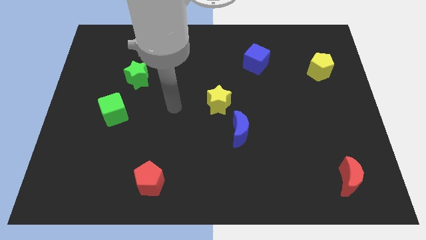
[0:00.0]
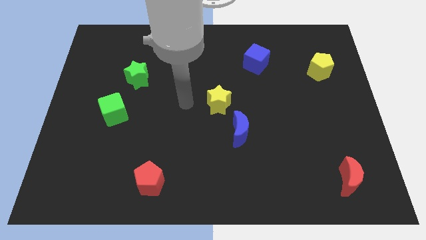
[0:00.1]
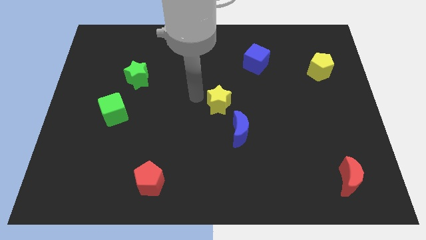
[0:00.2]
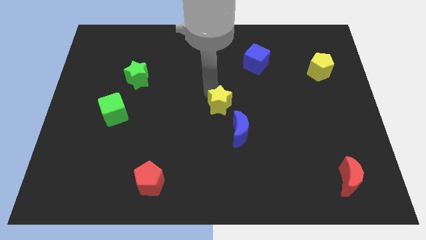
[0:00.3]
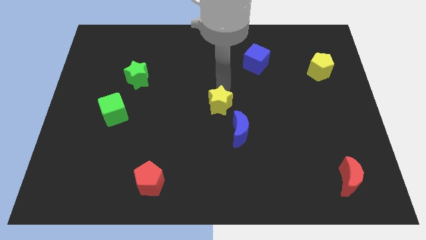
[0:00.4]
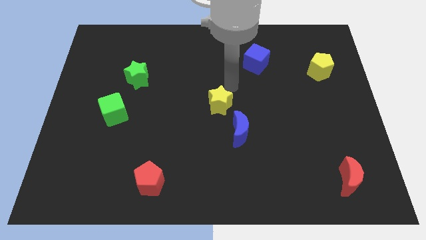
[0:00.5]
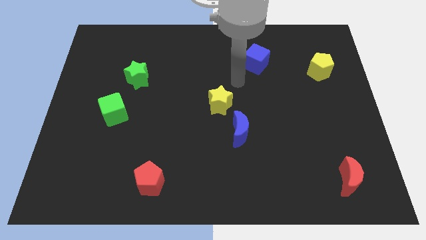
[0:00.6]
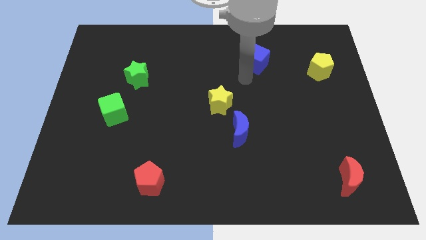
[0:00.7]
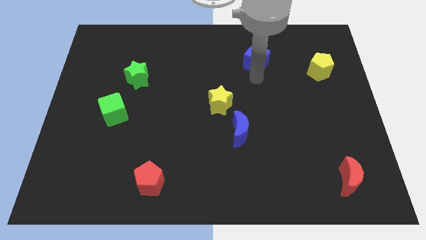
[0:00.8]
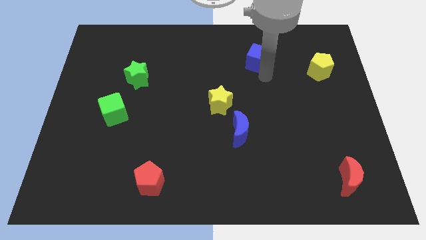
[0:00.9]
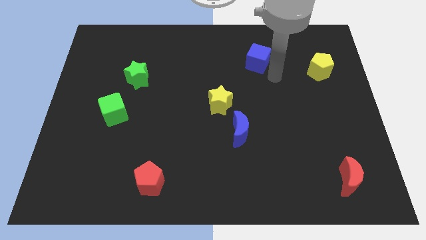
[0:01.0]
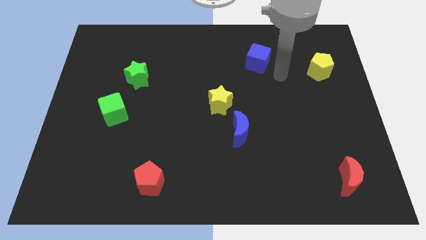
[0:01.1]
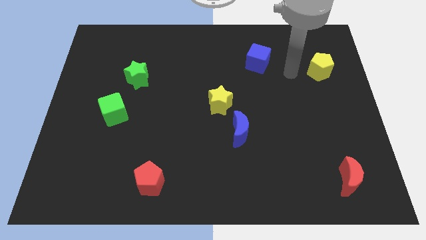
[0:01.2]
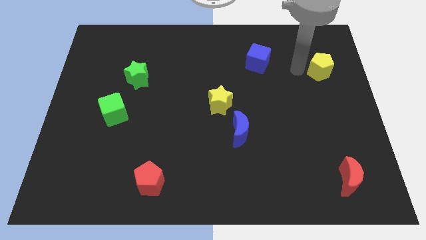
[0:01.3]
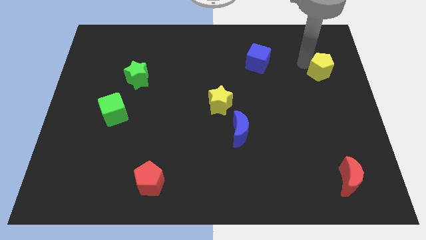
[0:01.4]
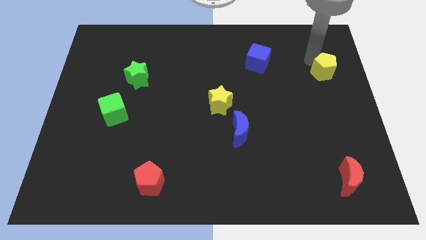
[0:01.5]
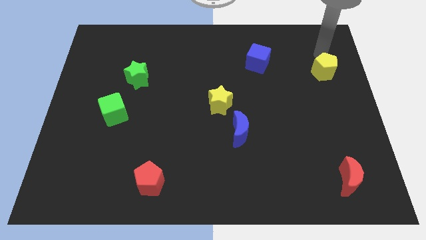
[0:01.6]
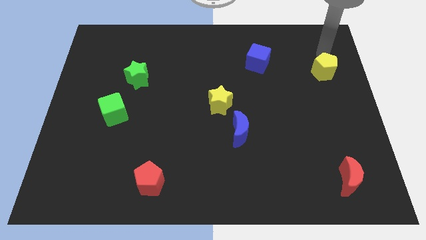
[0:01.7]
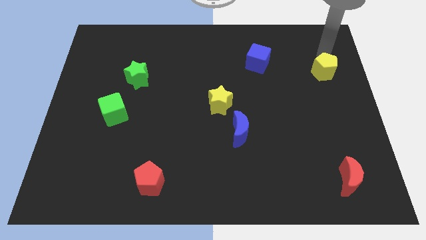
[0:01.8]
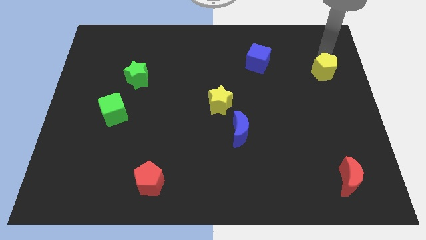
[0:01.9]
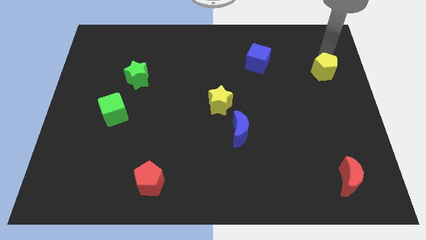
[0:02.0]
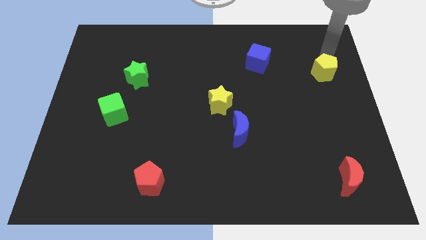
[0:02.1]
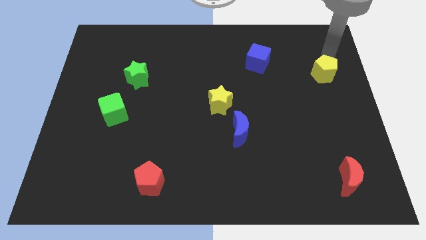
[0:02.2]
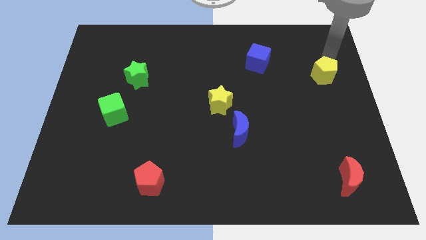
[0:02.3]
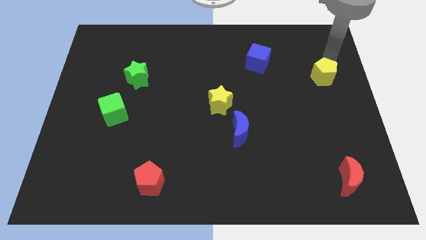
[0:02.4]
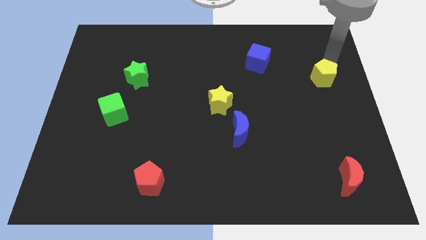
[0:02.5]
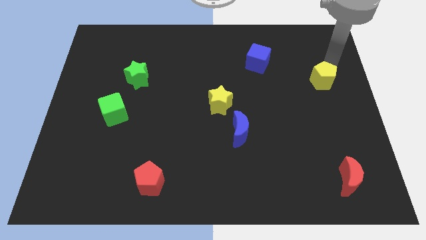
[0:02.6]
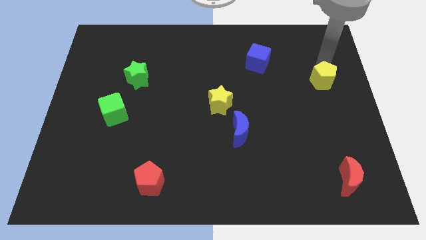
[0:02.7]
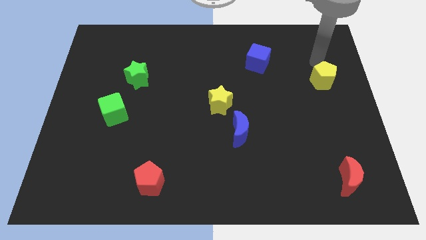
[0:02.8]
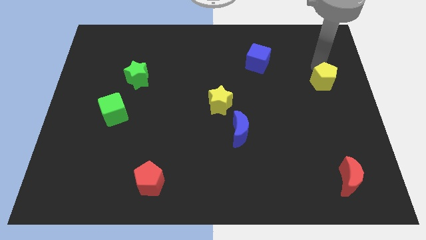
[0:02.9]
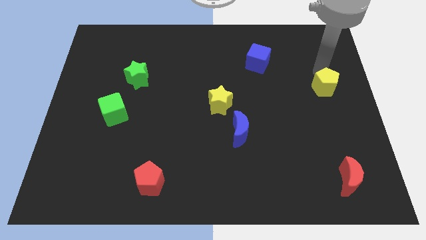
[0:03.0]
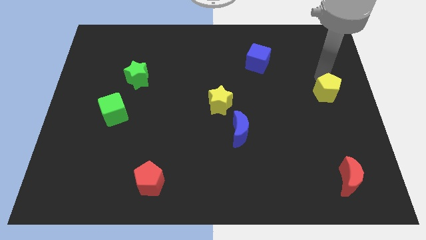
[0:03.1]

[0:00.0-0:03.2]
slightly slide the yellow pentagon downwards

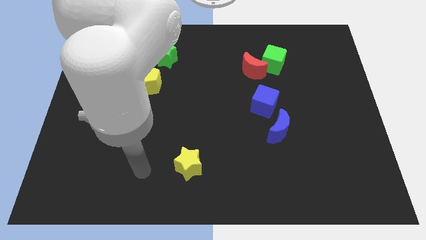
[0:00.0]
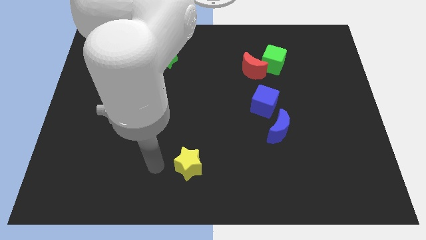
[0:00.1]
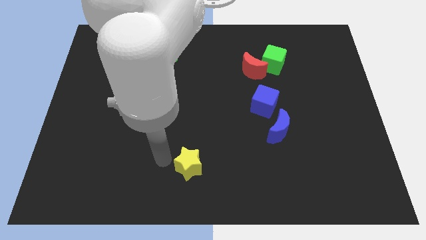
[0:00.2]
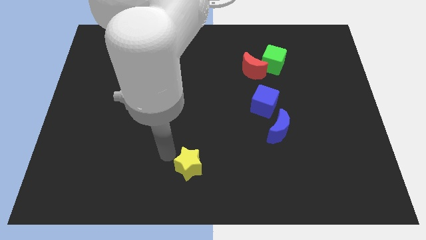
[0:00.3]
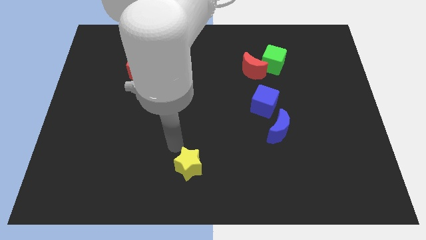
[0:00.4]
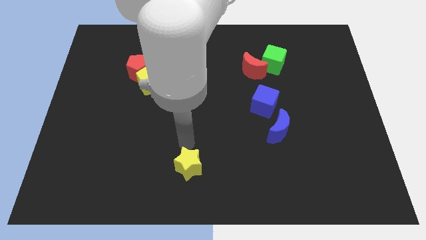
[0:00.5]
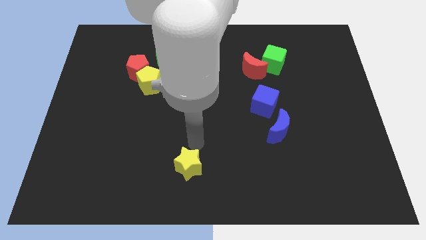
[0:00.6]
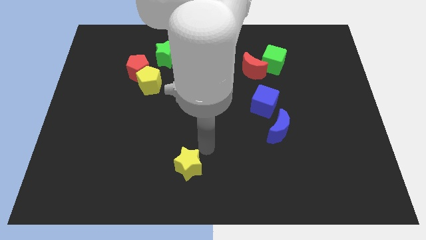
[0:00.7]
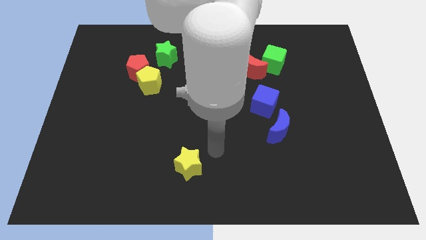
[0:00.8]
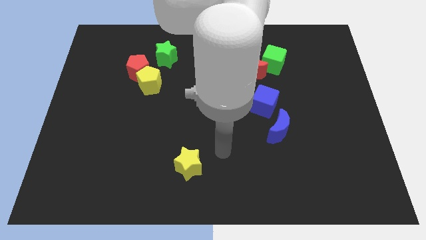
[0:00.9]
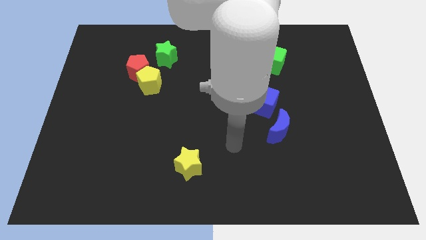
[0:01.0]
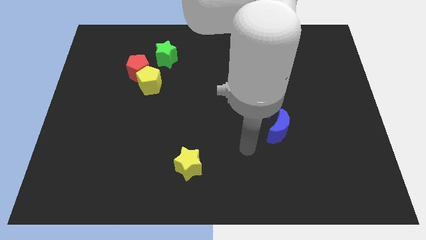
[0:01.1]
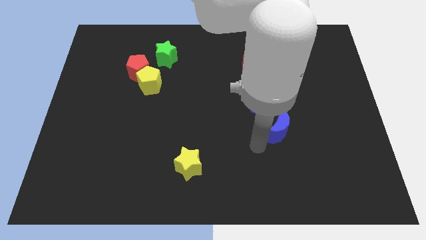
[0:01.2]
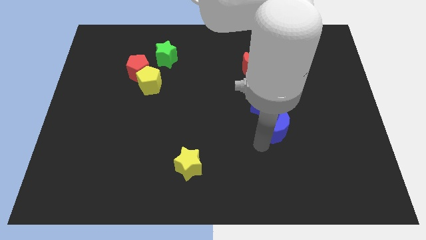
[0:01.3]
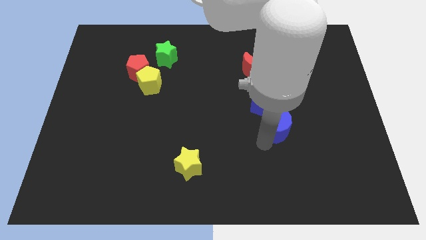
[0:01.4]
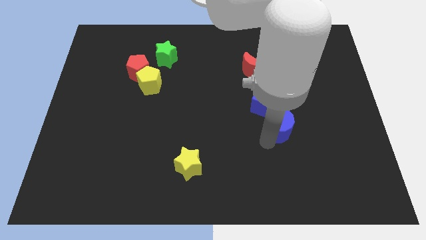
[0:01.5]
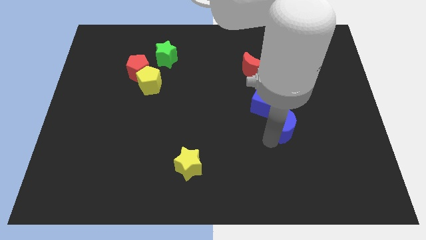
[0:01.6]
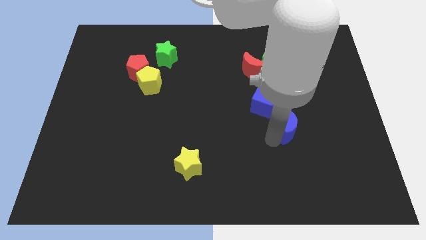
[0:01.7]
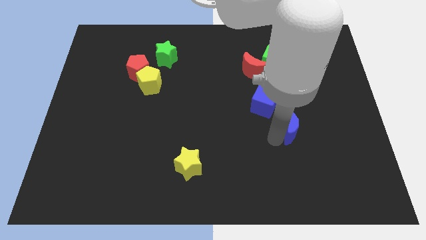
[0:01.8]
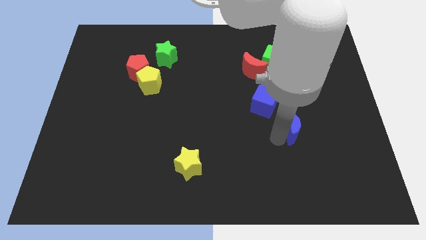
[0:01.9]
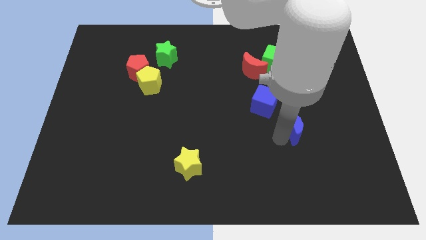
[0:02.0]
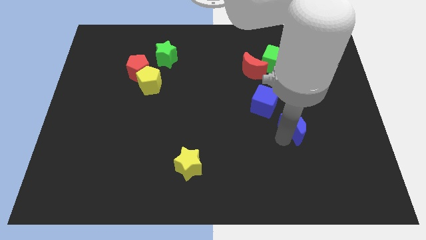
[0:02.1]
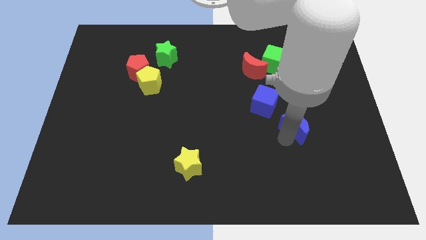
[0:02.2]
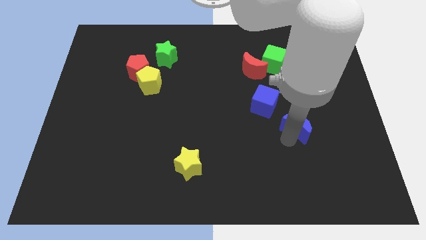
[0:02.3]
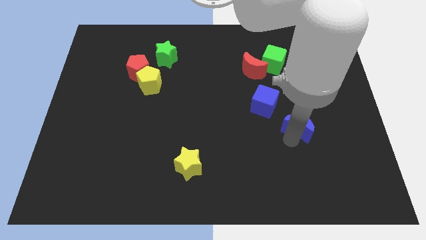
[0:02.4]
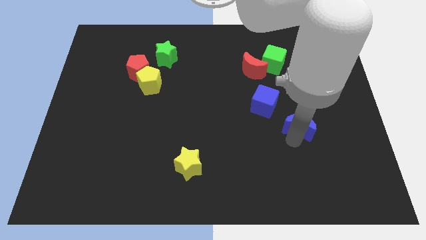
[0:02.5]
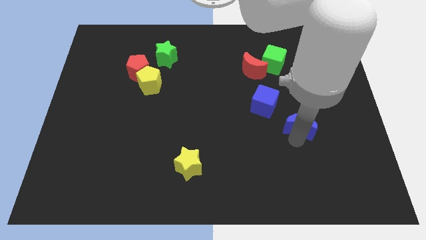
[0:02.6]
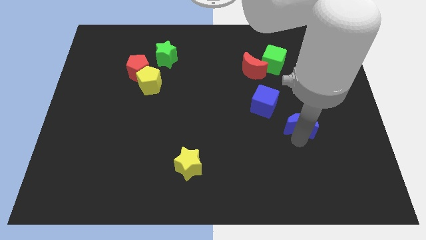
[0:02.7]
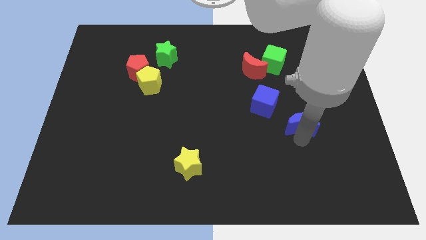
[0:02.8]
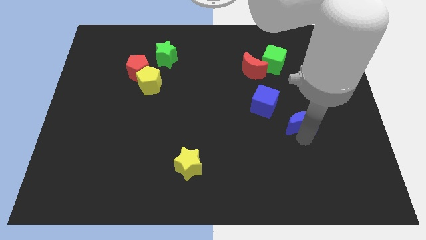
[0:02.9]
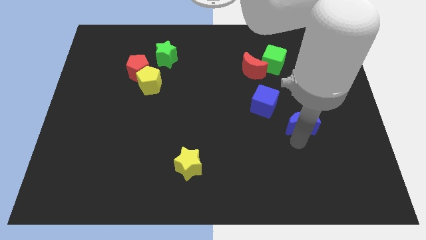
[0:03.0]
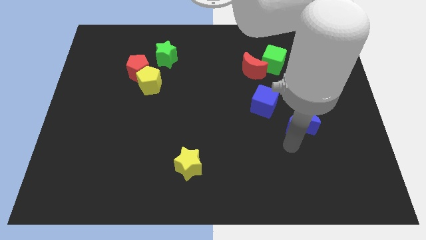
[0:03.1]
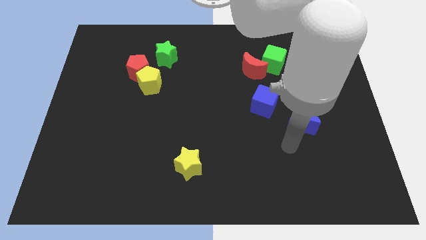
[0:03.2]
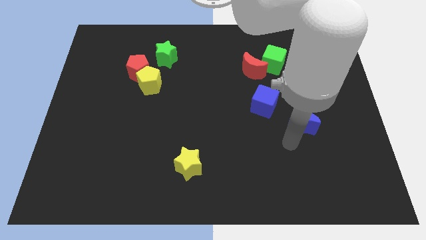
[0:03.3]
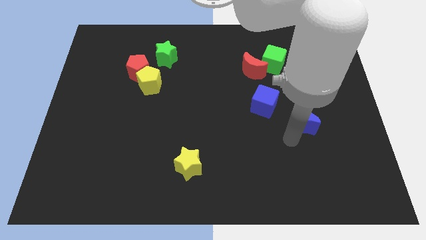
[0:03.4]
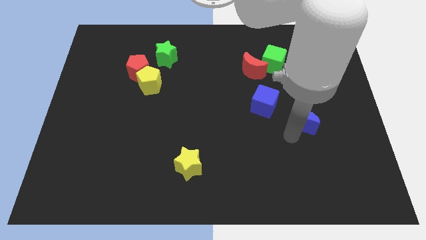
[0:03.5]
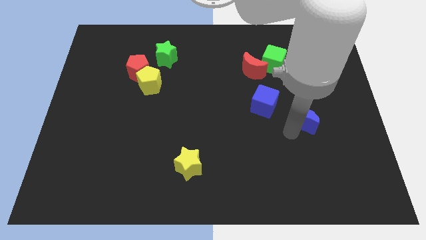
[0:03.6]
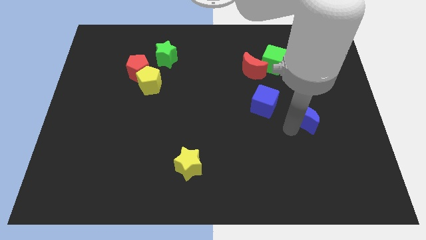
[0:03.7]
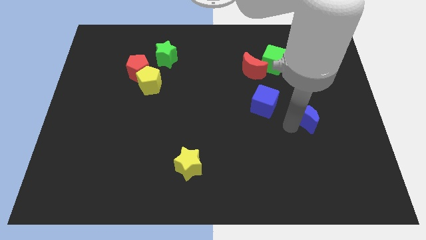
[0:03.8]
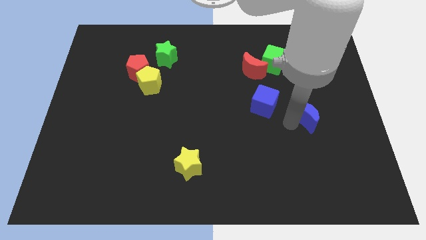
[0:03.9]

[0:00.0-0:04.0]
push the blue moon somewhat up and then right

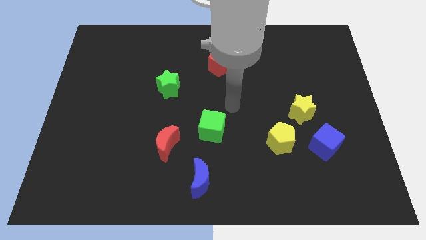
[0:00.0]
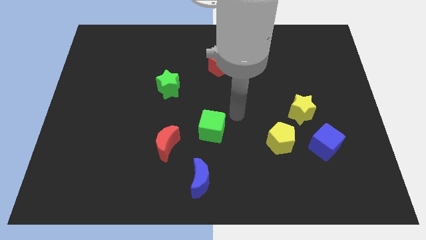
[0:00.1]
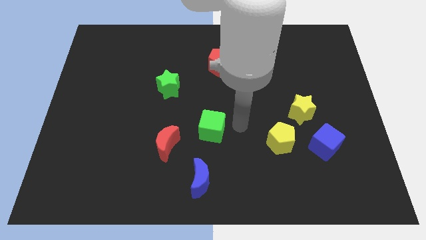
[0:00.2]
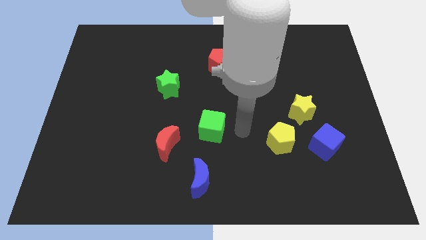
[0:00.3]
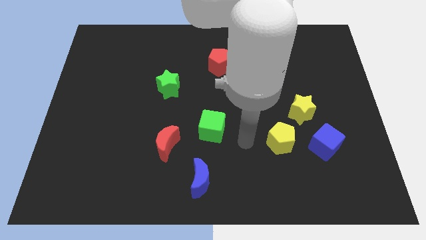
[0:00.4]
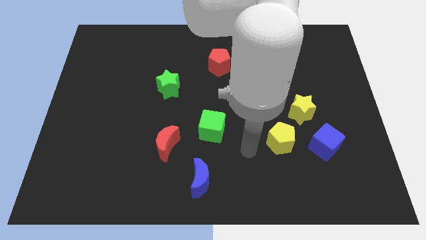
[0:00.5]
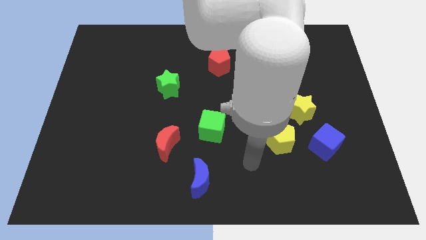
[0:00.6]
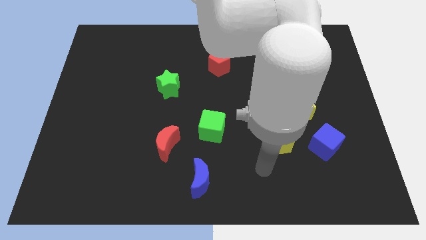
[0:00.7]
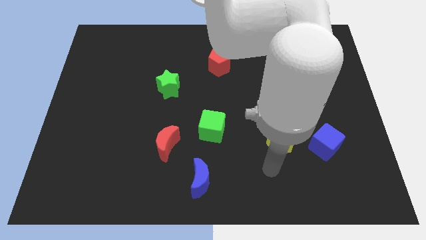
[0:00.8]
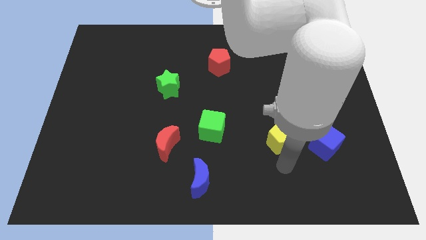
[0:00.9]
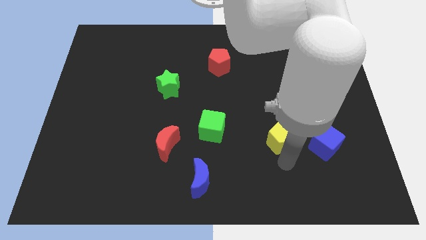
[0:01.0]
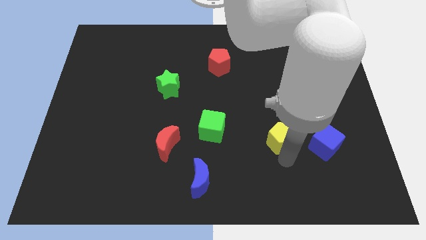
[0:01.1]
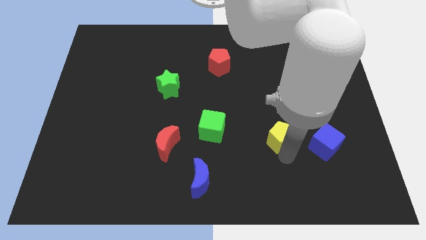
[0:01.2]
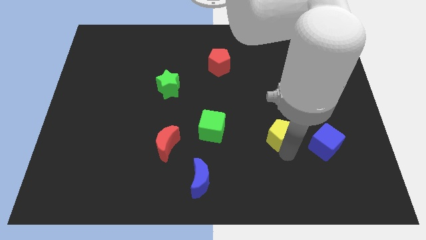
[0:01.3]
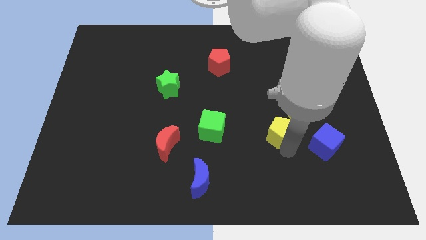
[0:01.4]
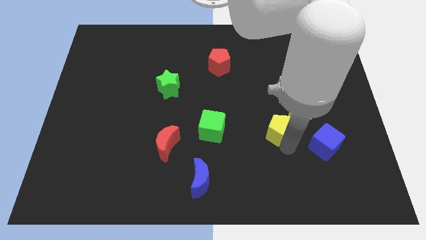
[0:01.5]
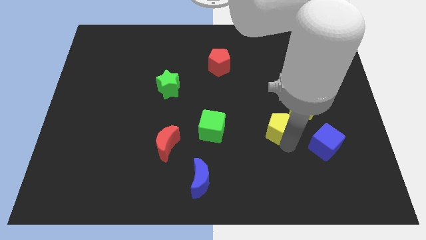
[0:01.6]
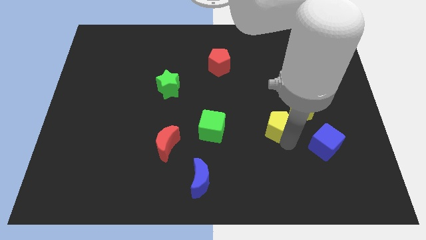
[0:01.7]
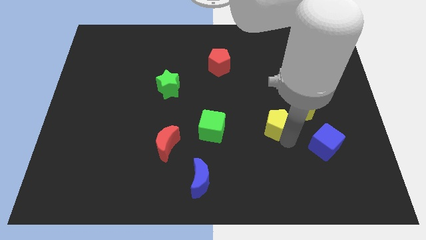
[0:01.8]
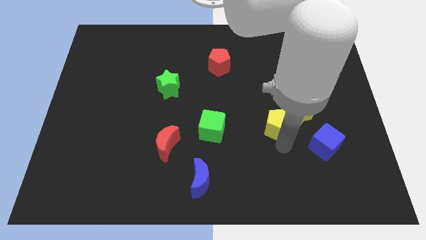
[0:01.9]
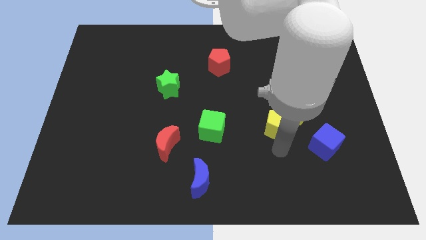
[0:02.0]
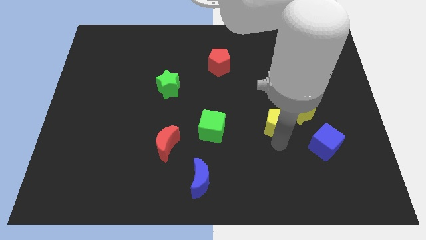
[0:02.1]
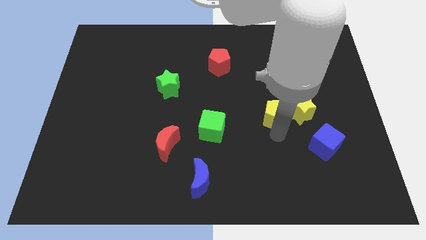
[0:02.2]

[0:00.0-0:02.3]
move the yellow pentagon up slightly
